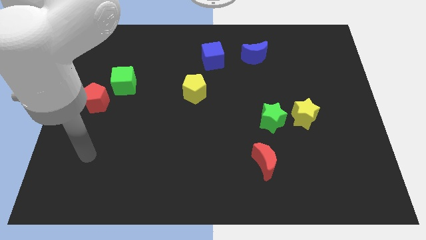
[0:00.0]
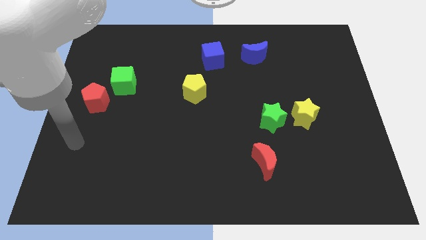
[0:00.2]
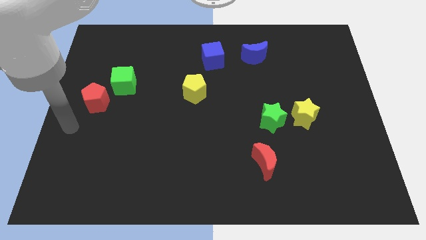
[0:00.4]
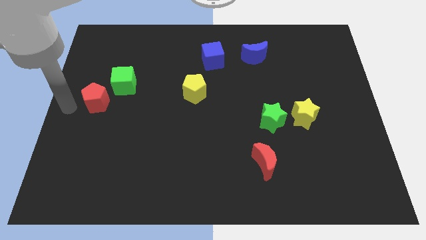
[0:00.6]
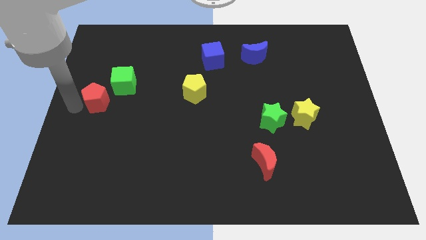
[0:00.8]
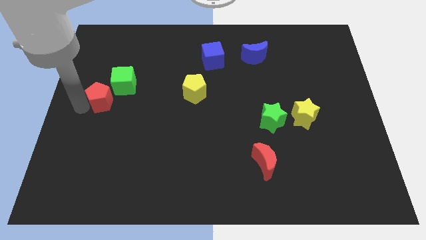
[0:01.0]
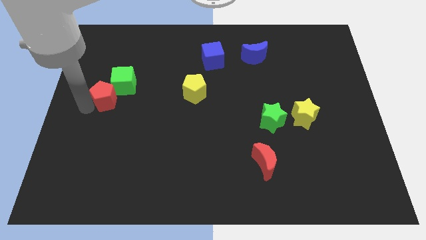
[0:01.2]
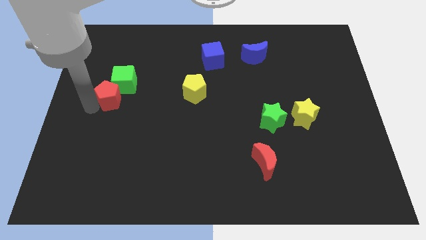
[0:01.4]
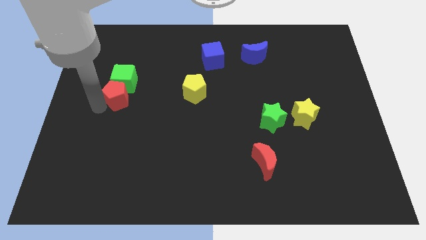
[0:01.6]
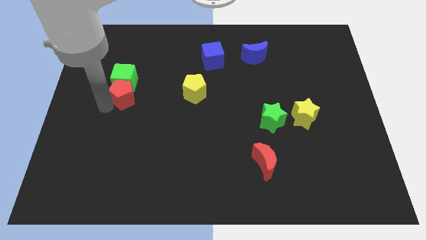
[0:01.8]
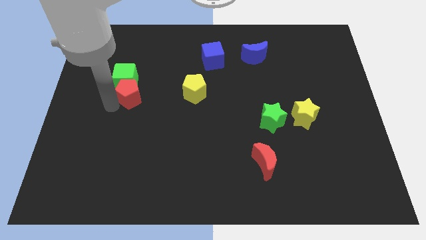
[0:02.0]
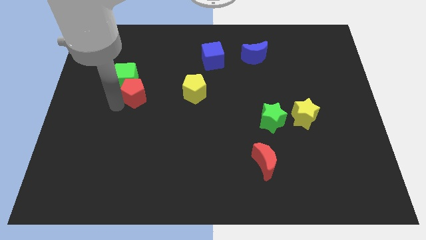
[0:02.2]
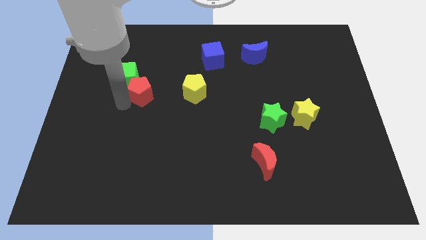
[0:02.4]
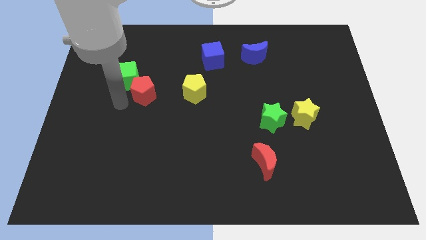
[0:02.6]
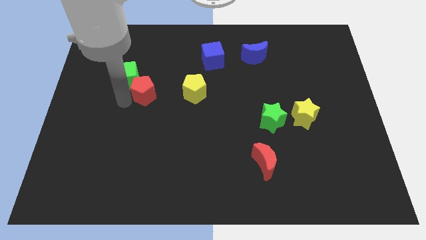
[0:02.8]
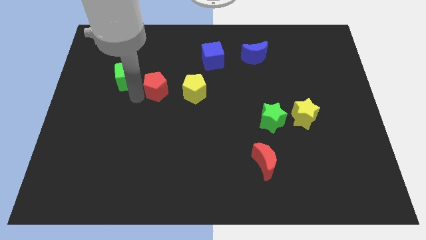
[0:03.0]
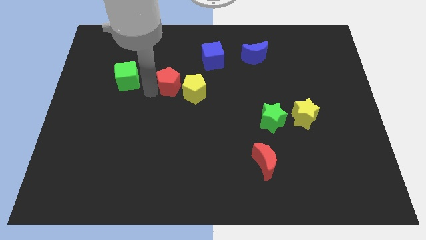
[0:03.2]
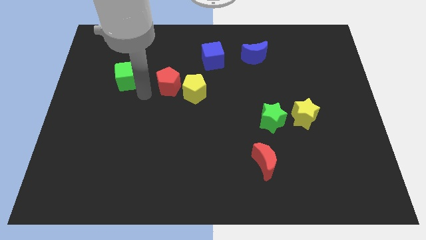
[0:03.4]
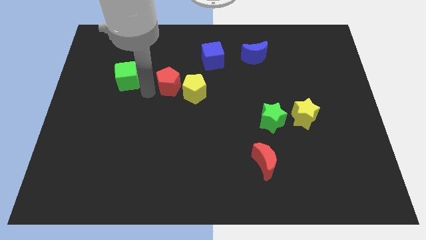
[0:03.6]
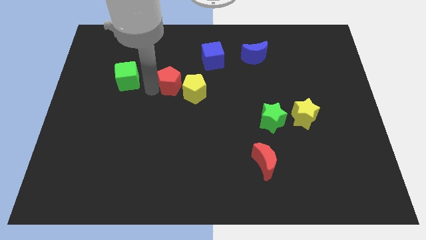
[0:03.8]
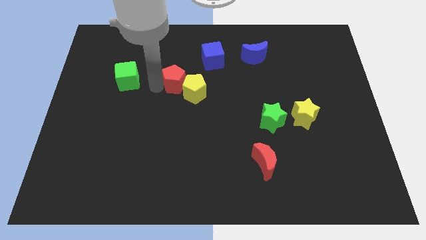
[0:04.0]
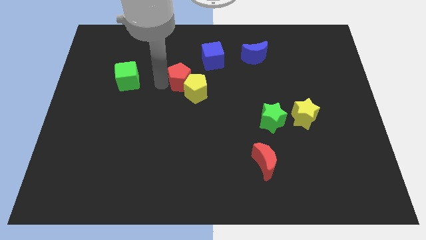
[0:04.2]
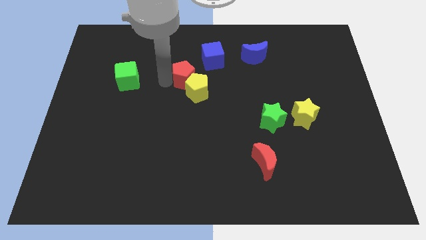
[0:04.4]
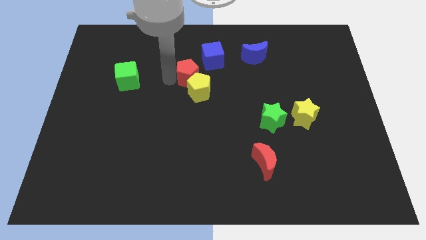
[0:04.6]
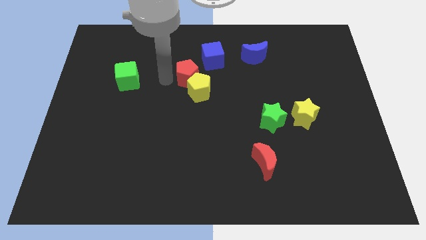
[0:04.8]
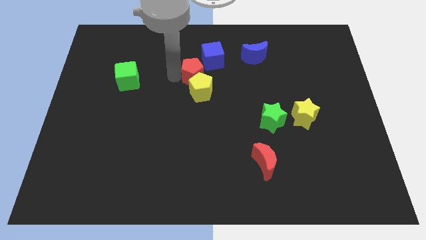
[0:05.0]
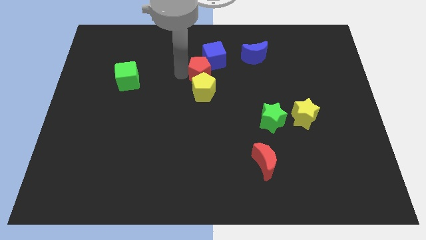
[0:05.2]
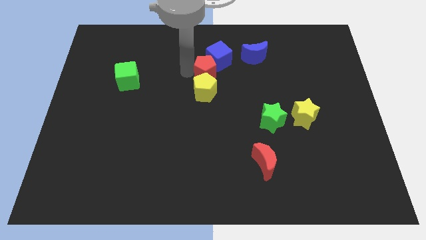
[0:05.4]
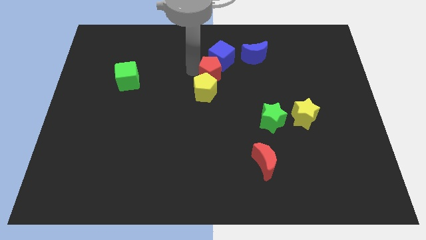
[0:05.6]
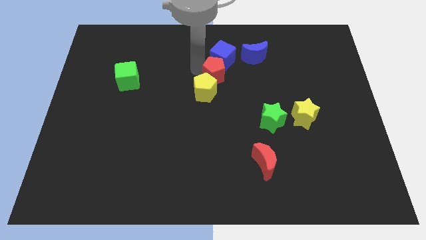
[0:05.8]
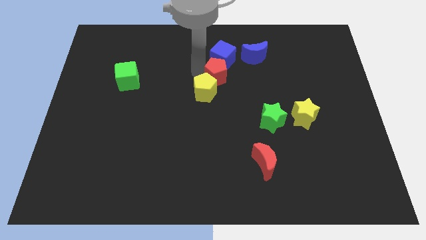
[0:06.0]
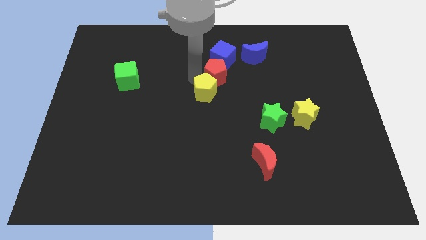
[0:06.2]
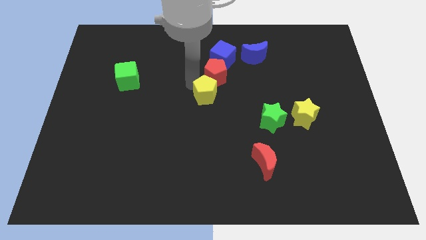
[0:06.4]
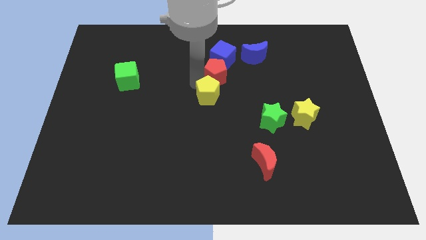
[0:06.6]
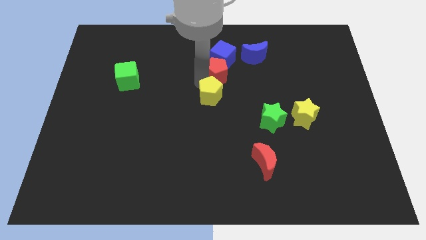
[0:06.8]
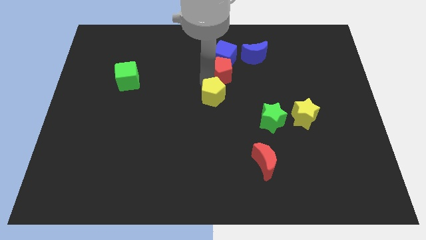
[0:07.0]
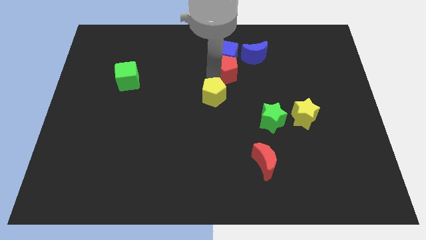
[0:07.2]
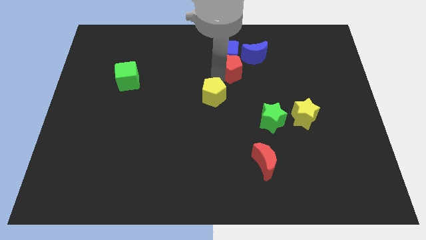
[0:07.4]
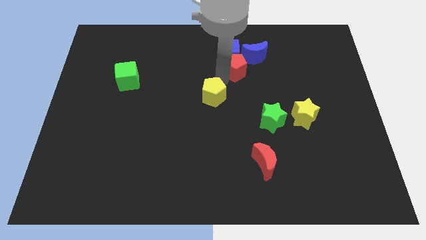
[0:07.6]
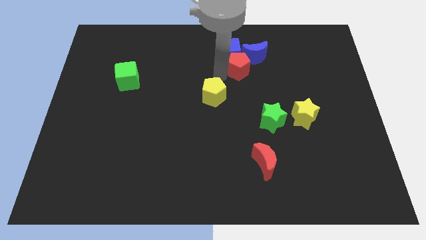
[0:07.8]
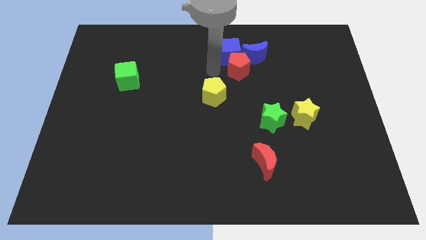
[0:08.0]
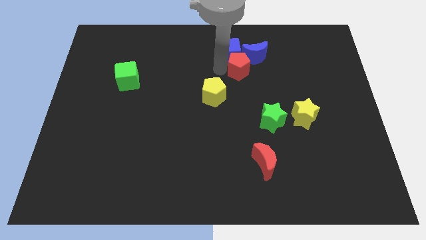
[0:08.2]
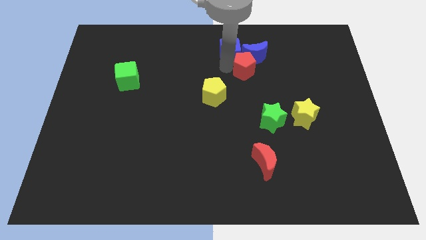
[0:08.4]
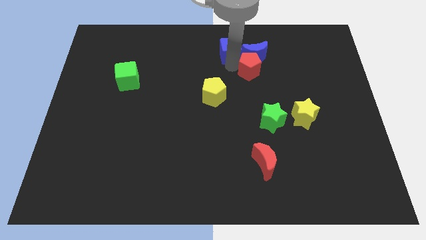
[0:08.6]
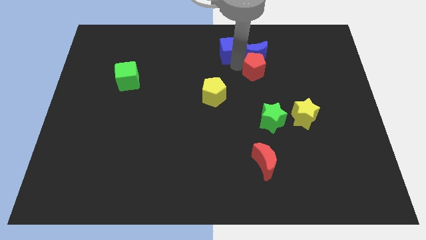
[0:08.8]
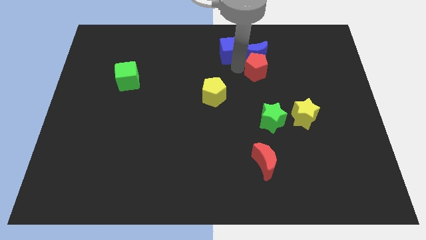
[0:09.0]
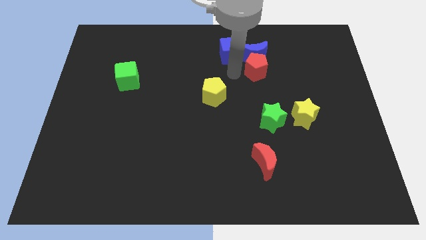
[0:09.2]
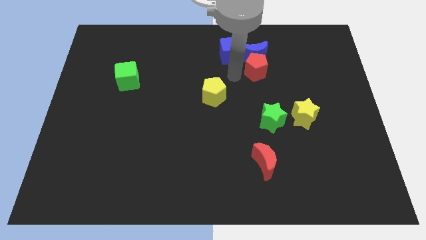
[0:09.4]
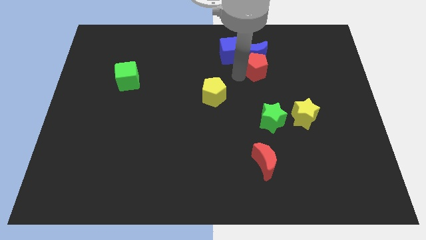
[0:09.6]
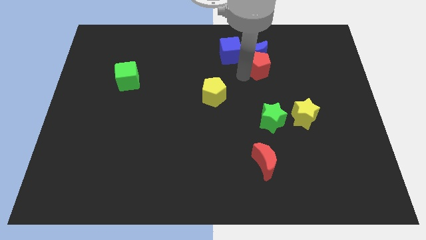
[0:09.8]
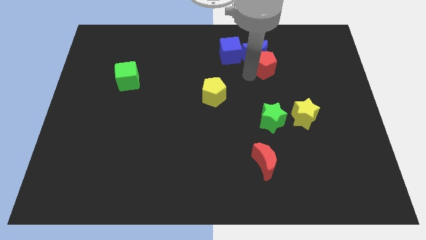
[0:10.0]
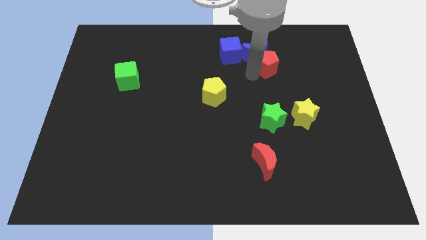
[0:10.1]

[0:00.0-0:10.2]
move the red pentagon to the right of the blue moon

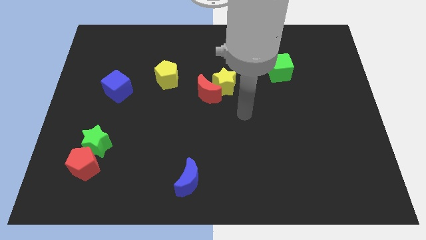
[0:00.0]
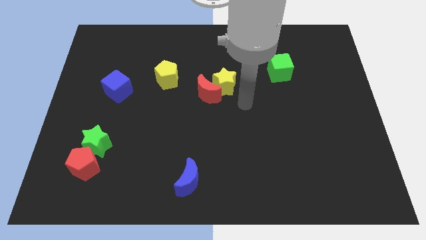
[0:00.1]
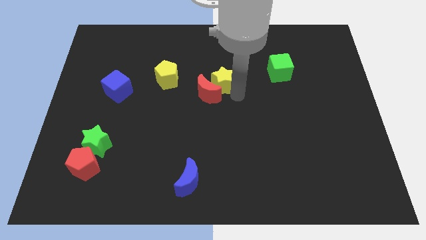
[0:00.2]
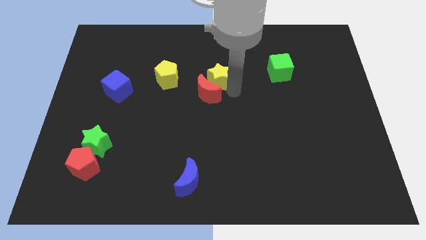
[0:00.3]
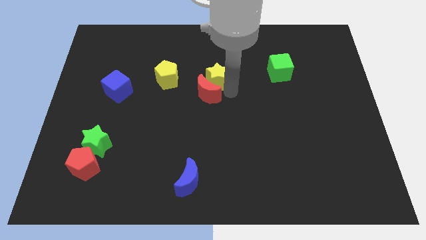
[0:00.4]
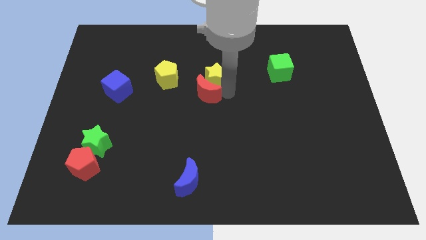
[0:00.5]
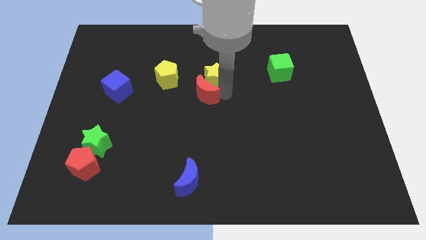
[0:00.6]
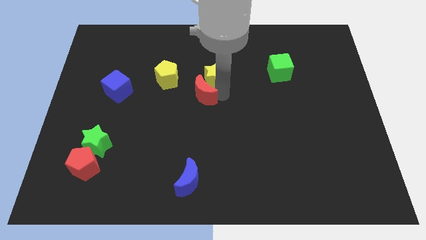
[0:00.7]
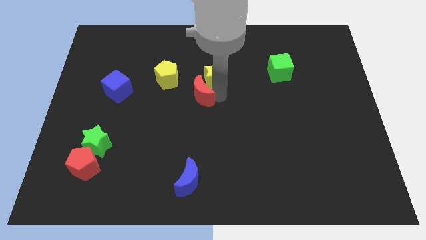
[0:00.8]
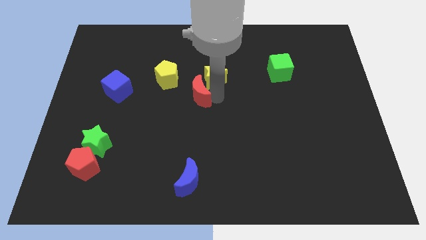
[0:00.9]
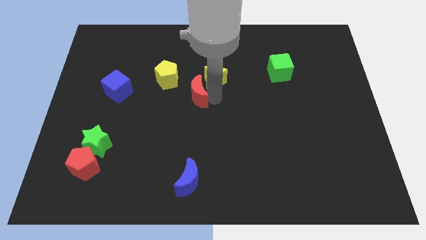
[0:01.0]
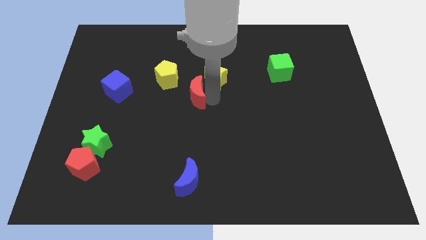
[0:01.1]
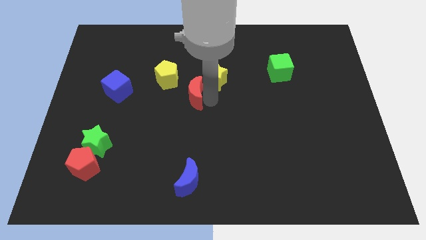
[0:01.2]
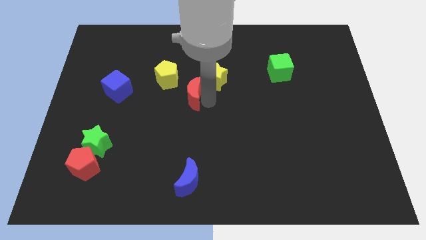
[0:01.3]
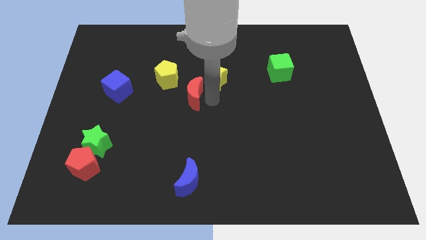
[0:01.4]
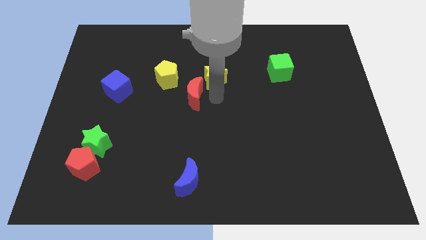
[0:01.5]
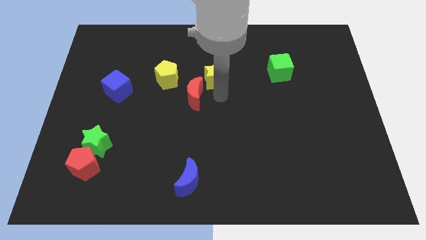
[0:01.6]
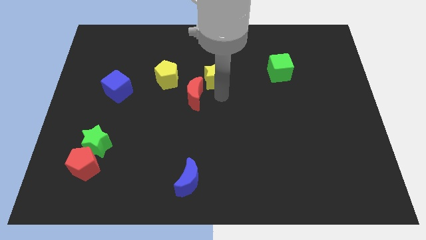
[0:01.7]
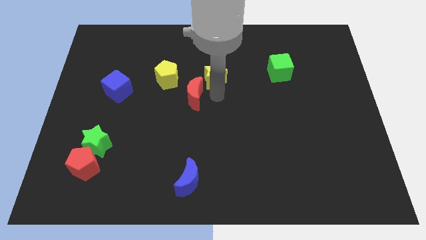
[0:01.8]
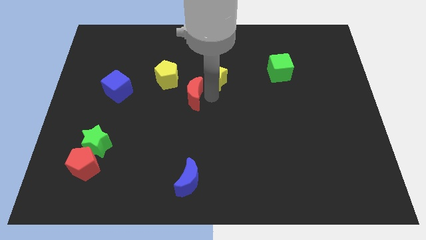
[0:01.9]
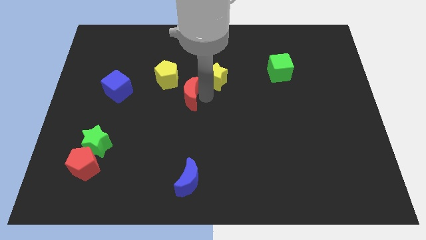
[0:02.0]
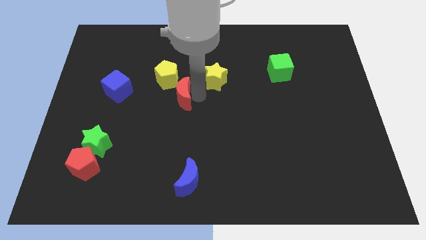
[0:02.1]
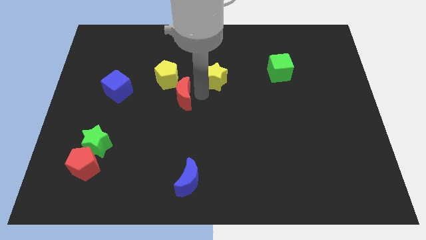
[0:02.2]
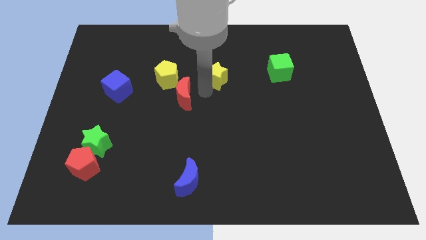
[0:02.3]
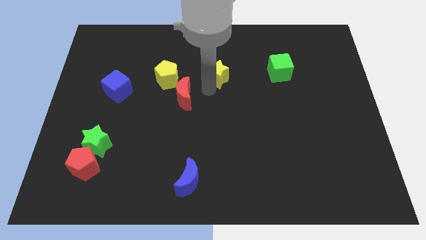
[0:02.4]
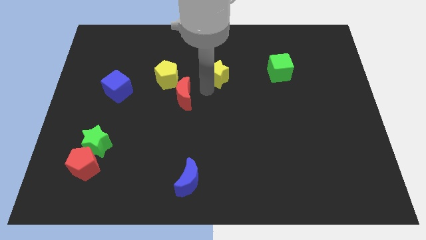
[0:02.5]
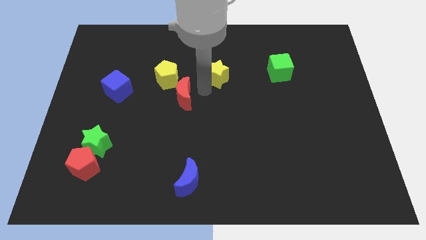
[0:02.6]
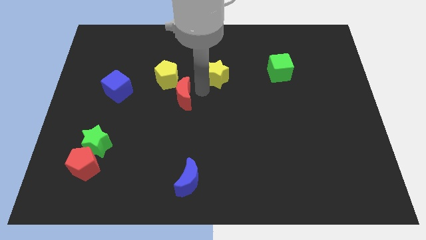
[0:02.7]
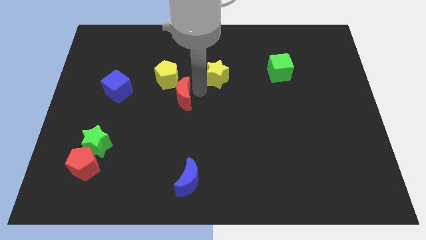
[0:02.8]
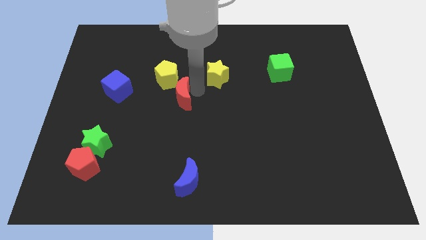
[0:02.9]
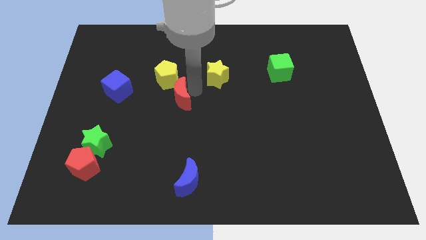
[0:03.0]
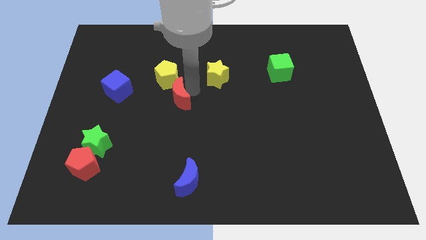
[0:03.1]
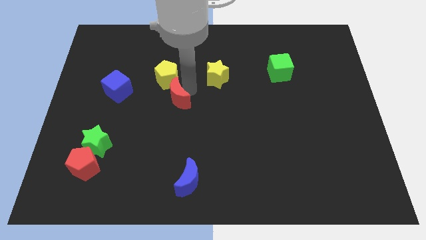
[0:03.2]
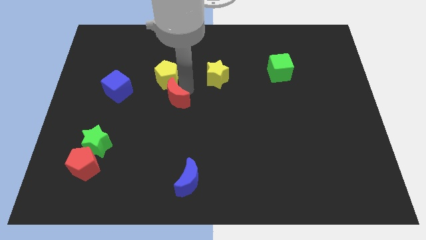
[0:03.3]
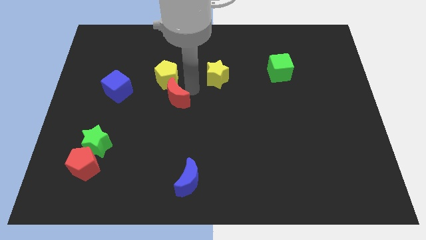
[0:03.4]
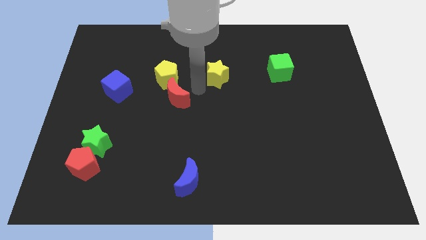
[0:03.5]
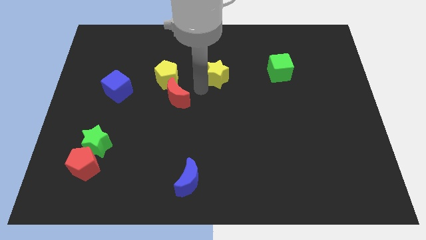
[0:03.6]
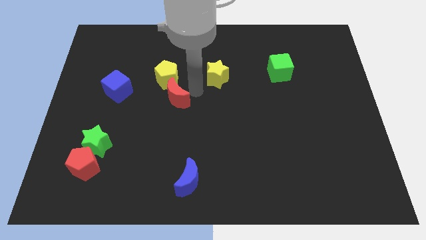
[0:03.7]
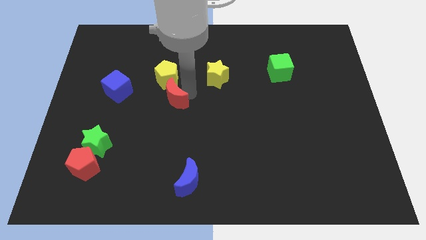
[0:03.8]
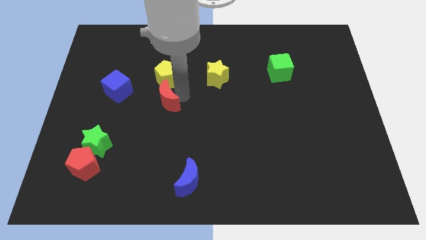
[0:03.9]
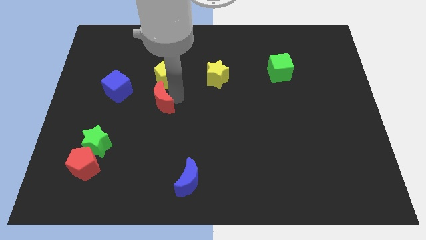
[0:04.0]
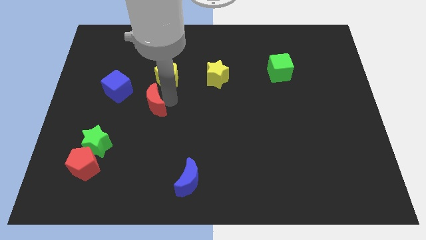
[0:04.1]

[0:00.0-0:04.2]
move the red moon diagonally down and to the right of the blue cube
